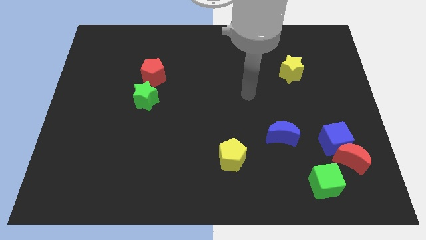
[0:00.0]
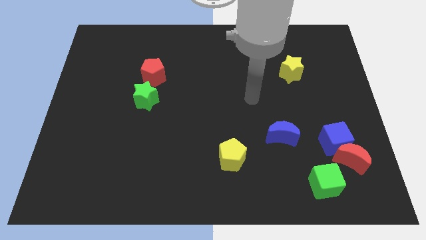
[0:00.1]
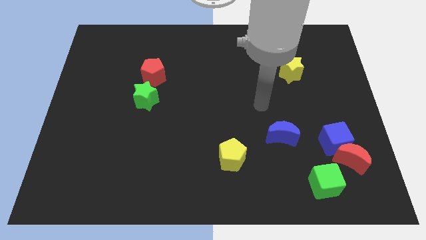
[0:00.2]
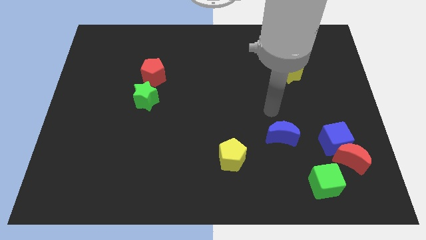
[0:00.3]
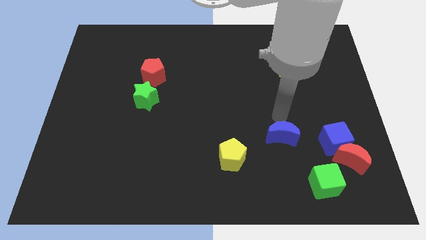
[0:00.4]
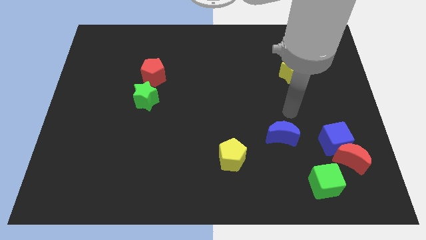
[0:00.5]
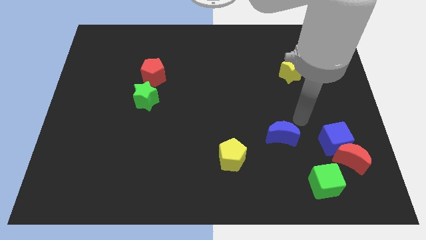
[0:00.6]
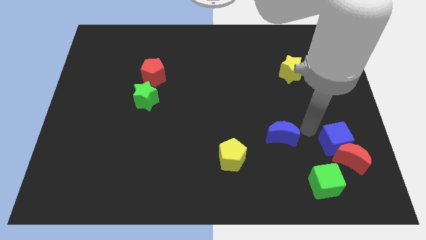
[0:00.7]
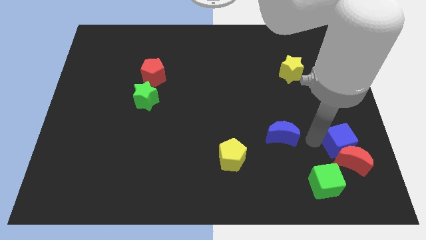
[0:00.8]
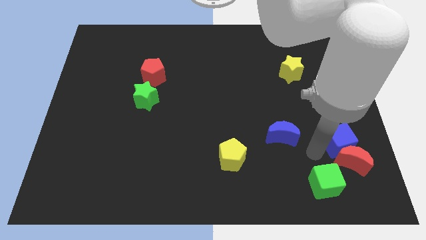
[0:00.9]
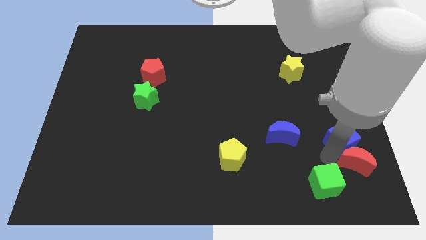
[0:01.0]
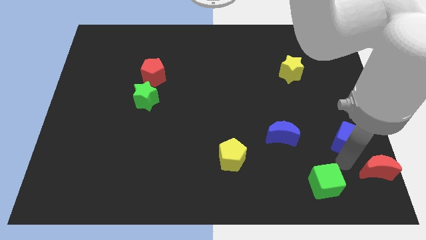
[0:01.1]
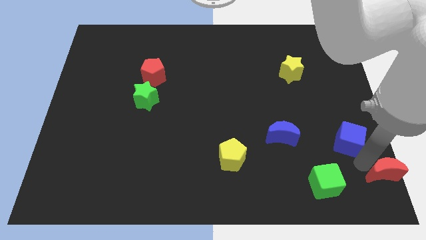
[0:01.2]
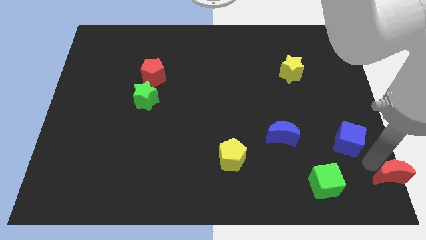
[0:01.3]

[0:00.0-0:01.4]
pull the blue cube apart from the red moon

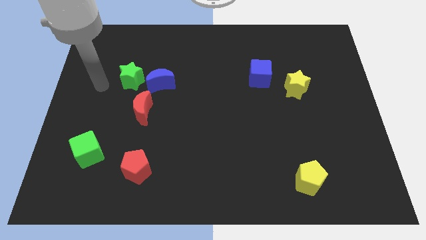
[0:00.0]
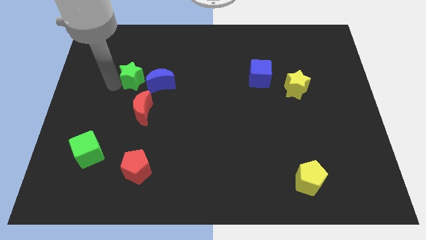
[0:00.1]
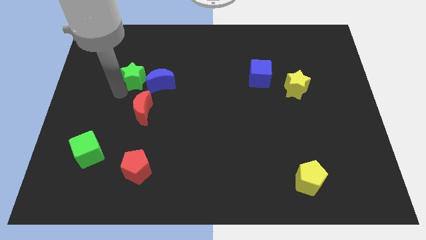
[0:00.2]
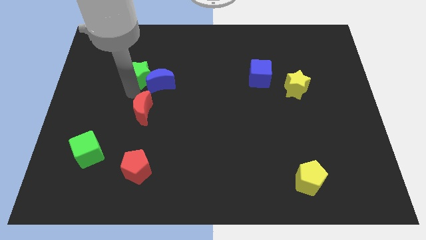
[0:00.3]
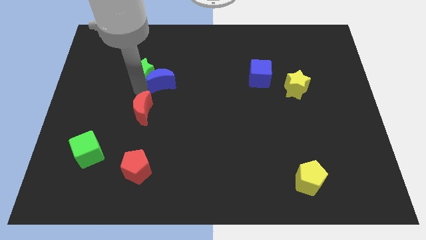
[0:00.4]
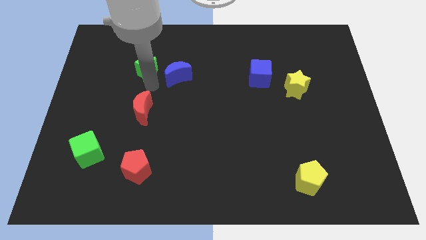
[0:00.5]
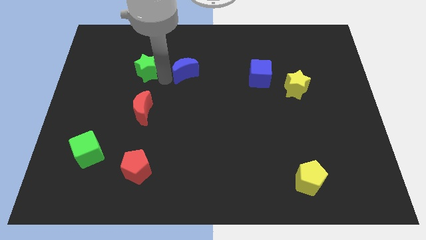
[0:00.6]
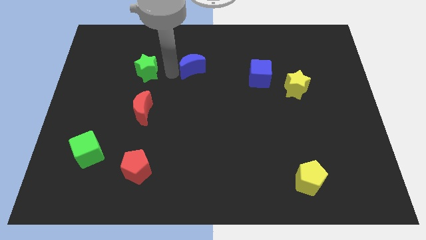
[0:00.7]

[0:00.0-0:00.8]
move the green star away from the blue moon

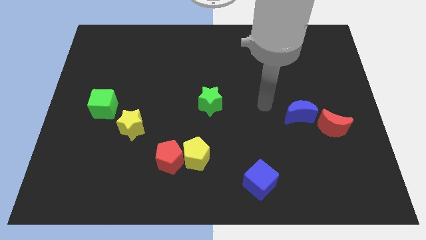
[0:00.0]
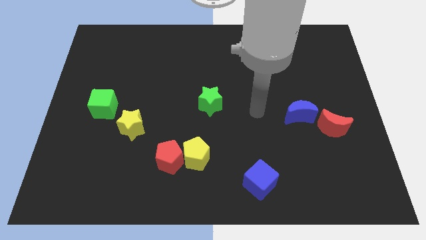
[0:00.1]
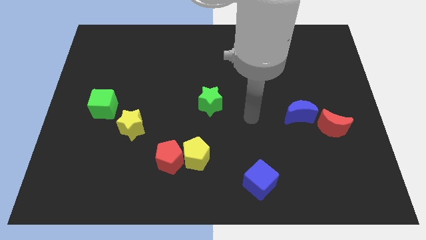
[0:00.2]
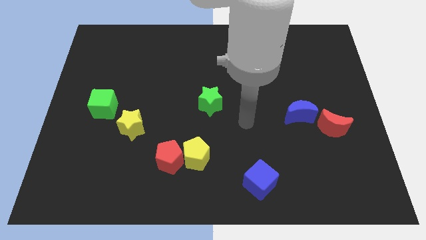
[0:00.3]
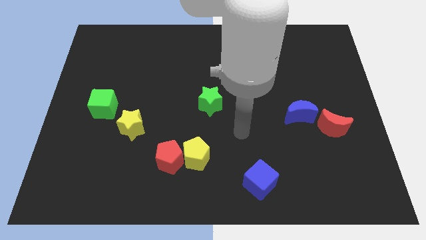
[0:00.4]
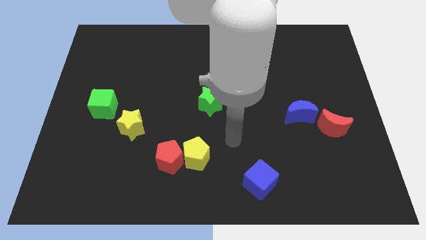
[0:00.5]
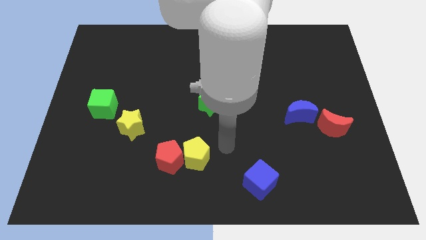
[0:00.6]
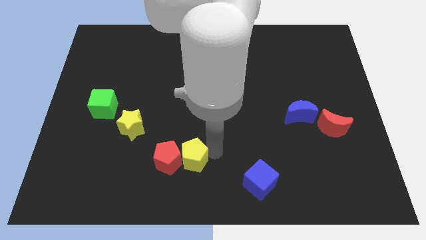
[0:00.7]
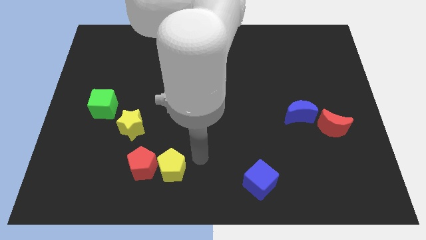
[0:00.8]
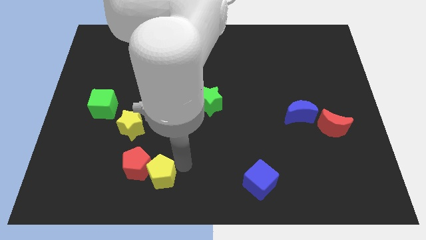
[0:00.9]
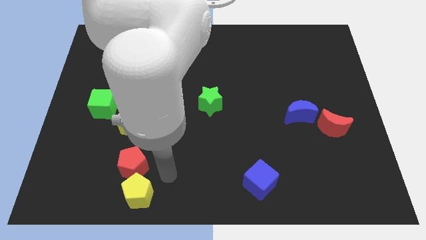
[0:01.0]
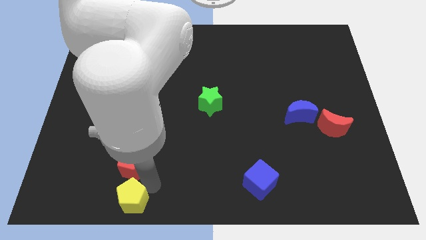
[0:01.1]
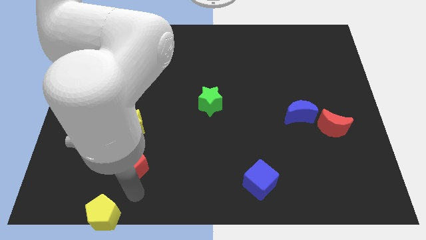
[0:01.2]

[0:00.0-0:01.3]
separate the red pentagon from the yellow pentagon

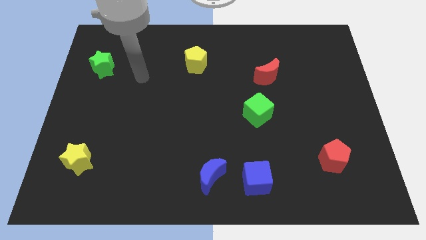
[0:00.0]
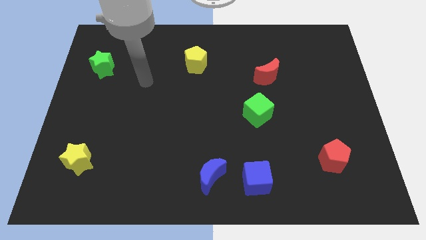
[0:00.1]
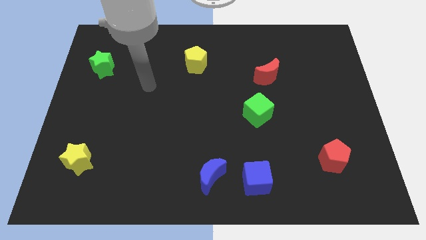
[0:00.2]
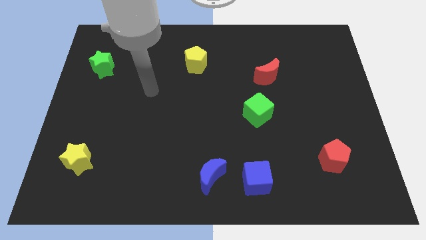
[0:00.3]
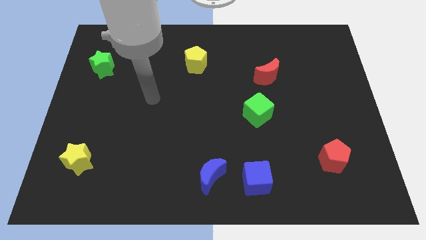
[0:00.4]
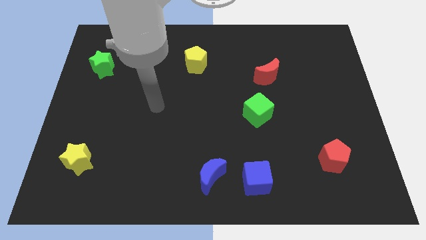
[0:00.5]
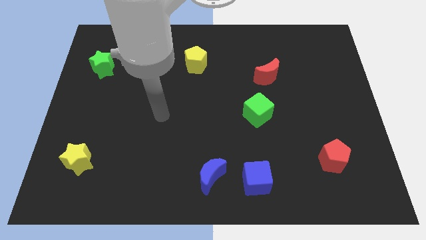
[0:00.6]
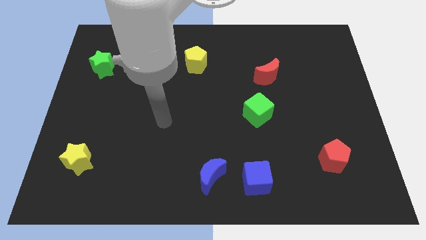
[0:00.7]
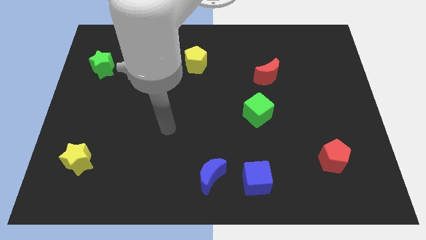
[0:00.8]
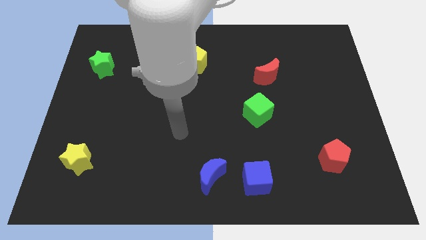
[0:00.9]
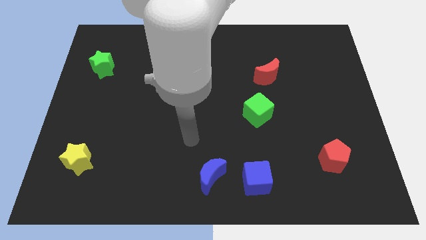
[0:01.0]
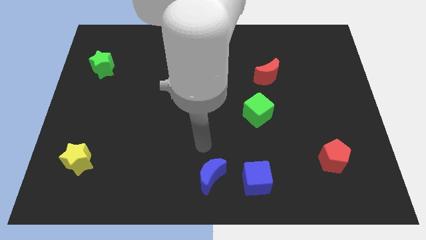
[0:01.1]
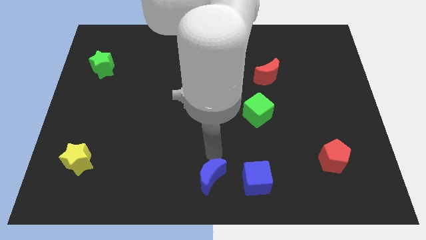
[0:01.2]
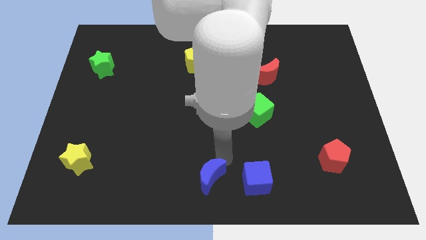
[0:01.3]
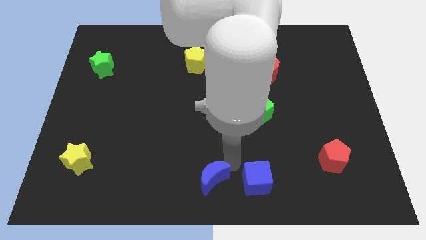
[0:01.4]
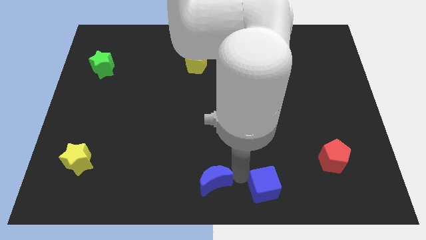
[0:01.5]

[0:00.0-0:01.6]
move the blue moon away from the blue cube

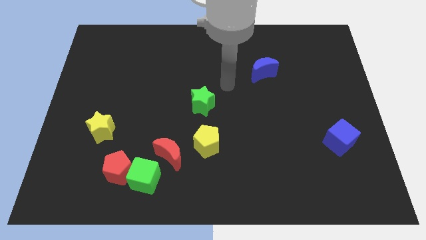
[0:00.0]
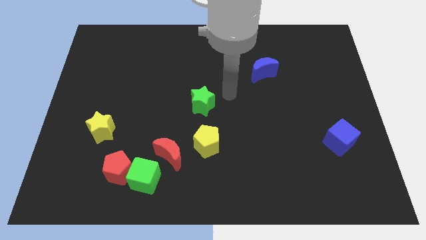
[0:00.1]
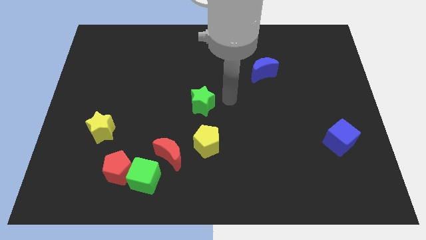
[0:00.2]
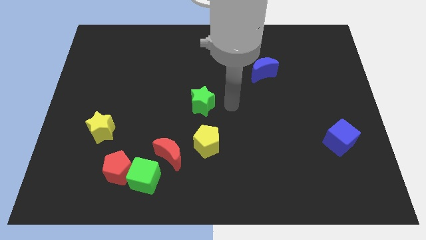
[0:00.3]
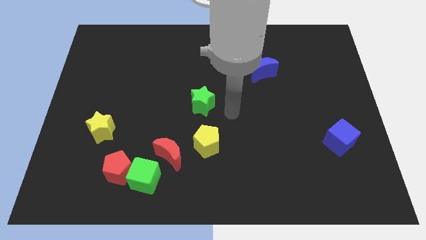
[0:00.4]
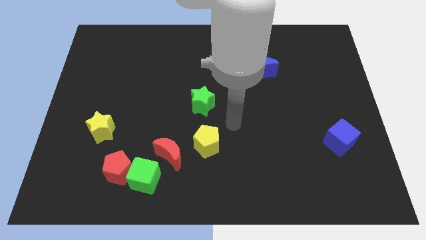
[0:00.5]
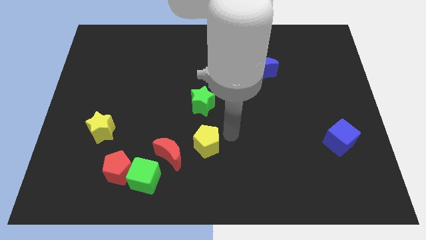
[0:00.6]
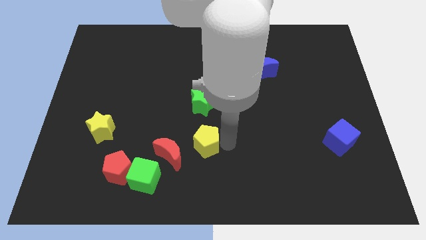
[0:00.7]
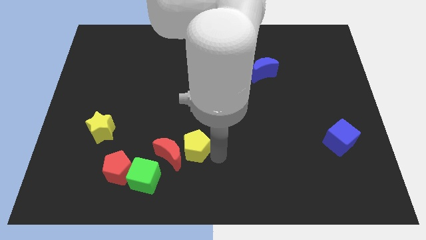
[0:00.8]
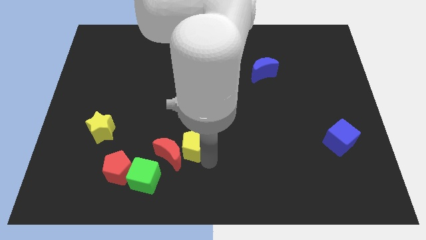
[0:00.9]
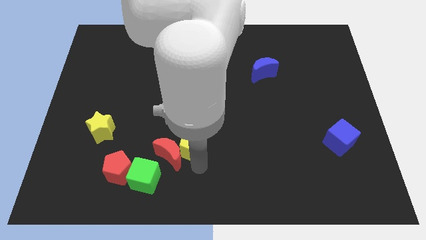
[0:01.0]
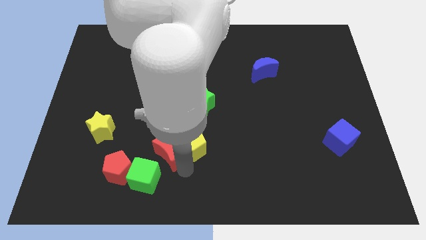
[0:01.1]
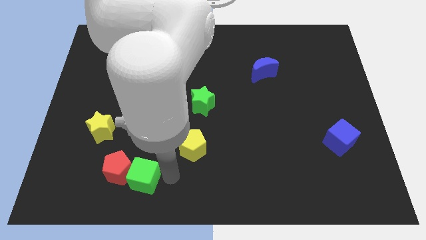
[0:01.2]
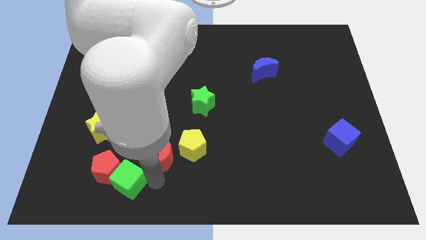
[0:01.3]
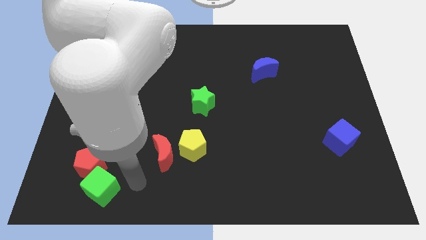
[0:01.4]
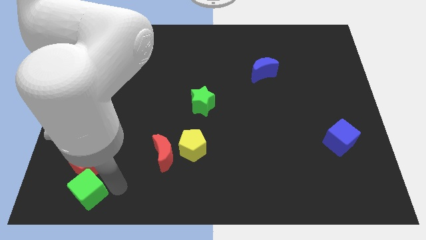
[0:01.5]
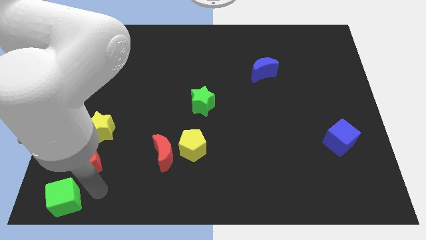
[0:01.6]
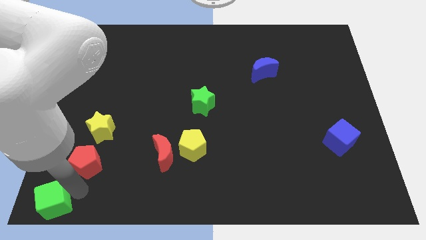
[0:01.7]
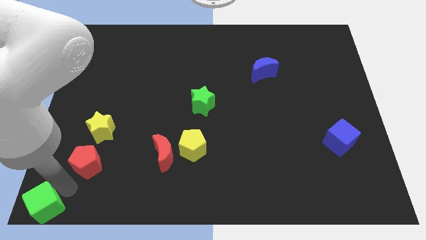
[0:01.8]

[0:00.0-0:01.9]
move the red pentagon away from the green cube

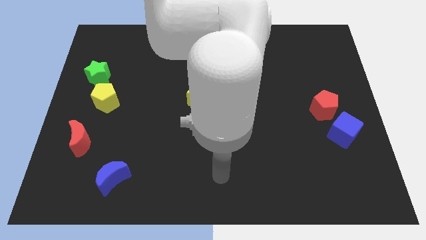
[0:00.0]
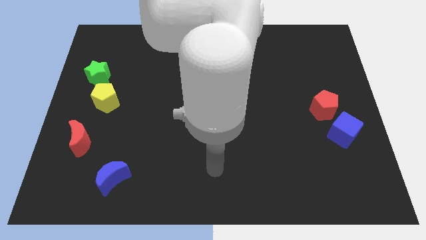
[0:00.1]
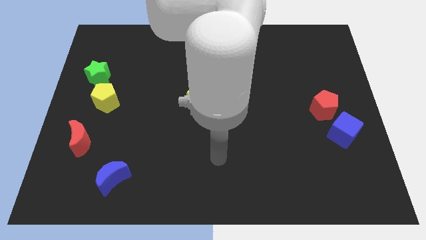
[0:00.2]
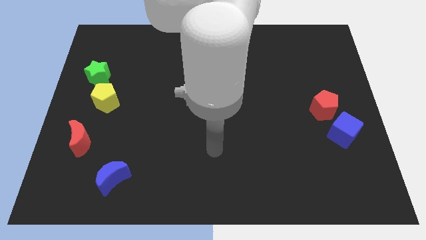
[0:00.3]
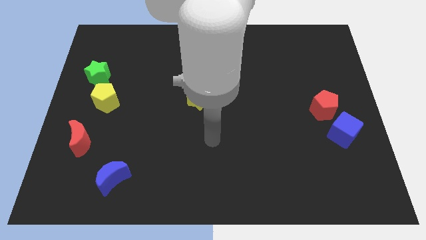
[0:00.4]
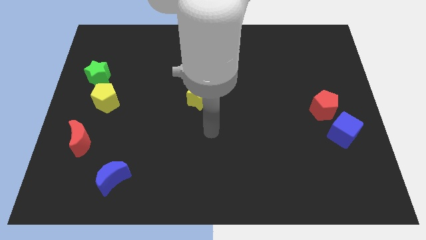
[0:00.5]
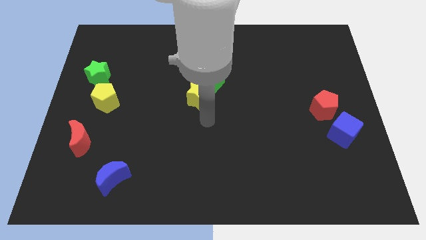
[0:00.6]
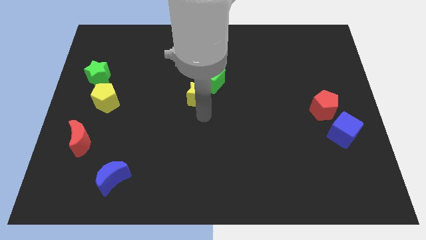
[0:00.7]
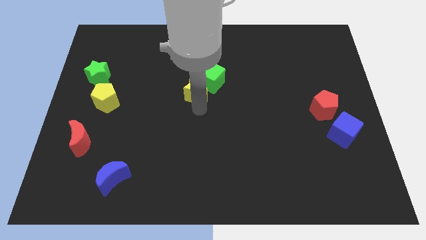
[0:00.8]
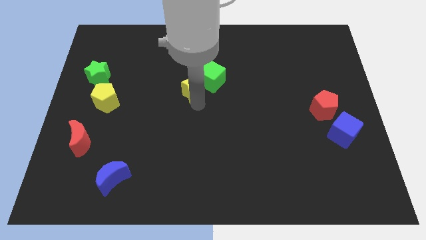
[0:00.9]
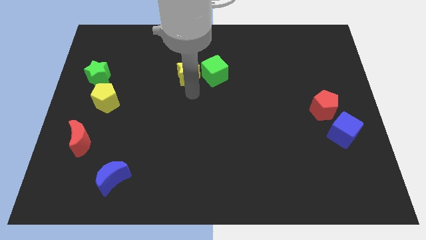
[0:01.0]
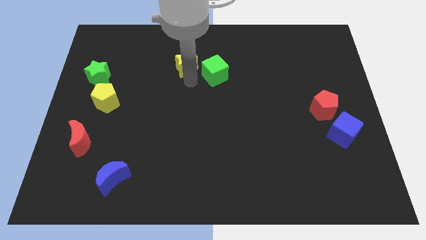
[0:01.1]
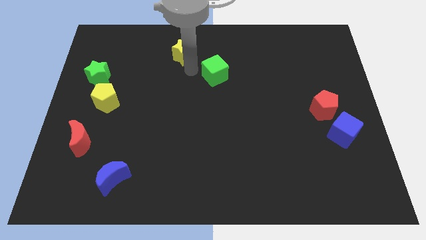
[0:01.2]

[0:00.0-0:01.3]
pull the green cube apart from the yellow star

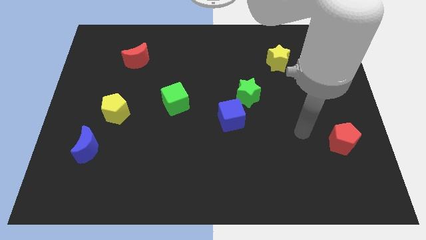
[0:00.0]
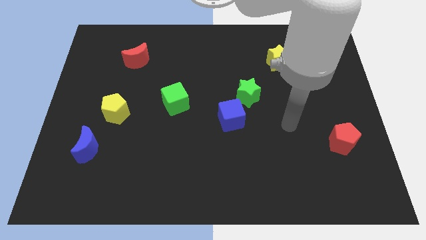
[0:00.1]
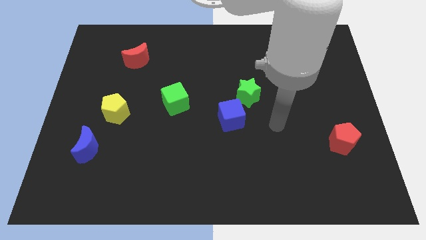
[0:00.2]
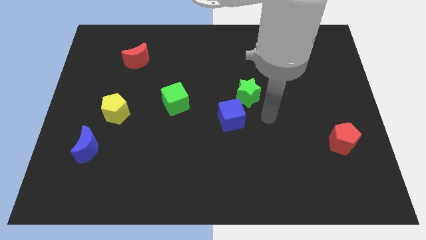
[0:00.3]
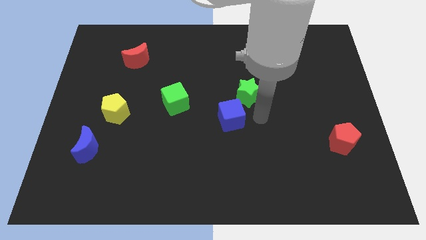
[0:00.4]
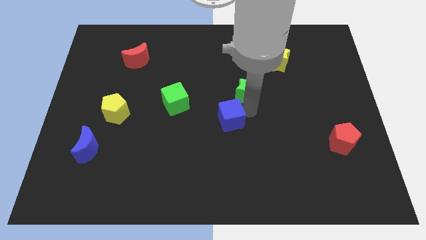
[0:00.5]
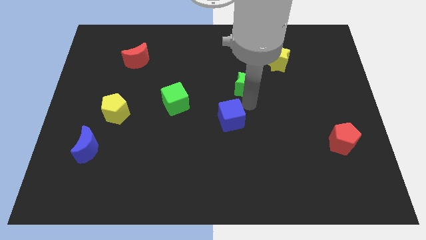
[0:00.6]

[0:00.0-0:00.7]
separate the blue cube from the green star

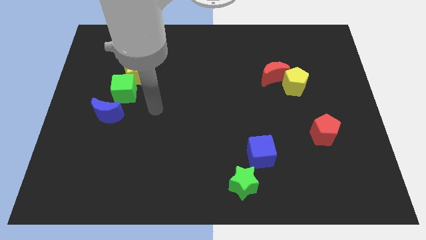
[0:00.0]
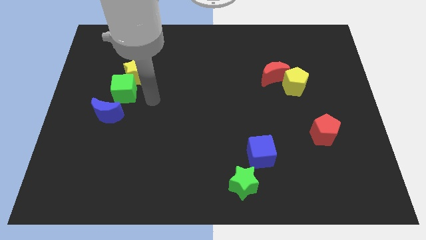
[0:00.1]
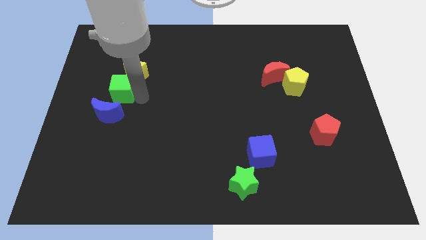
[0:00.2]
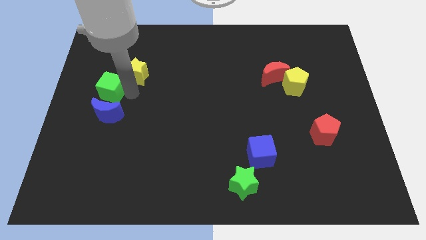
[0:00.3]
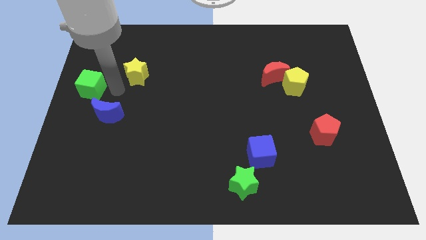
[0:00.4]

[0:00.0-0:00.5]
pull the yellow star apart from the green cube

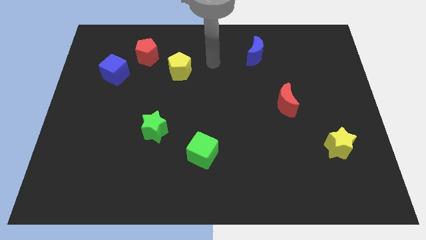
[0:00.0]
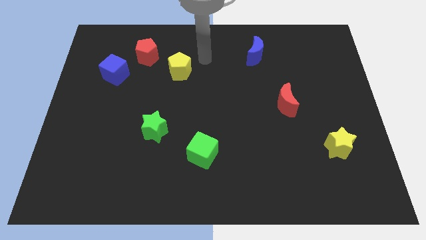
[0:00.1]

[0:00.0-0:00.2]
pull the blue cube apart from the red pentagon
